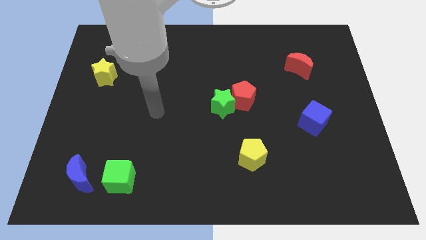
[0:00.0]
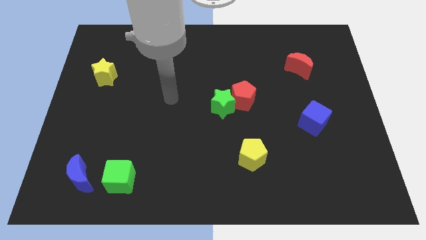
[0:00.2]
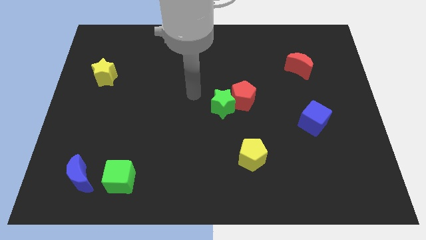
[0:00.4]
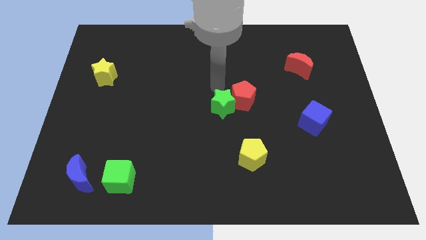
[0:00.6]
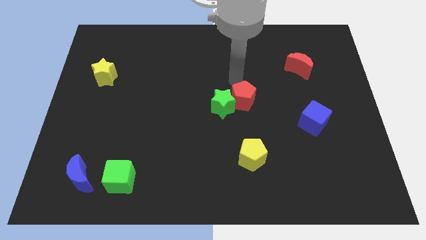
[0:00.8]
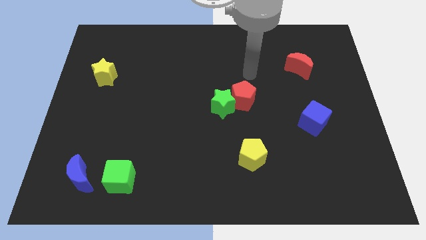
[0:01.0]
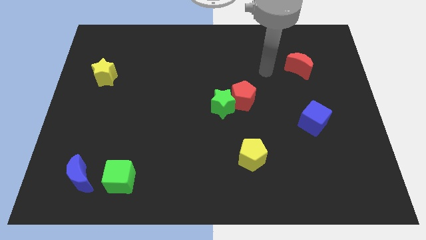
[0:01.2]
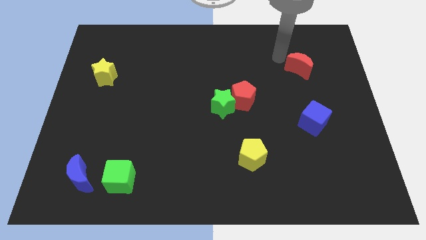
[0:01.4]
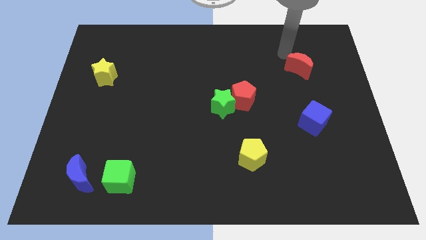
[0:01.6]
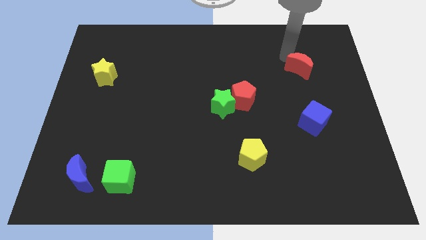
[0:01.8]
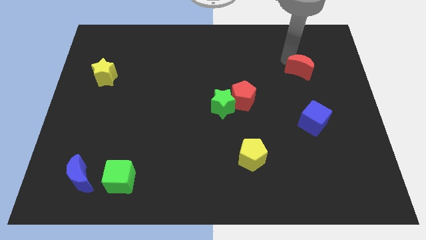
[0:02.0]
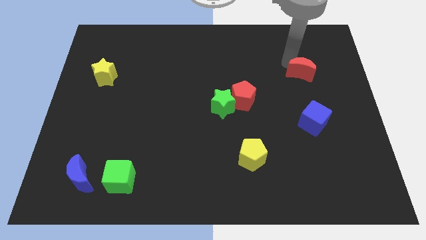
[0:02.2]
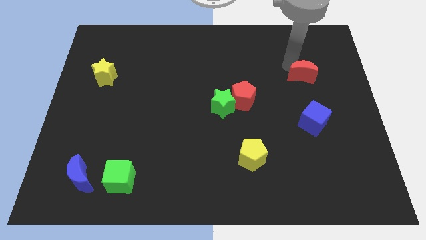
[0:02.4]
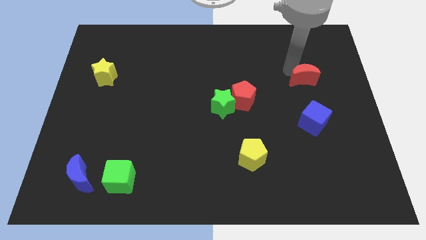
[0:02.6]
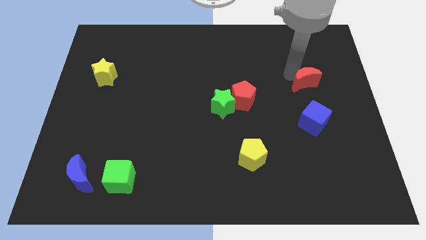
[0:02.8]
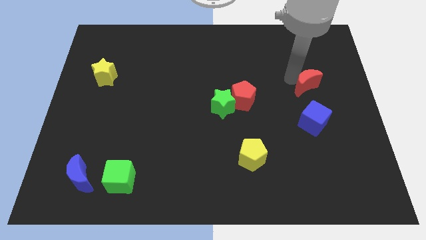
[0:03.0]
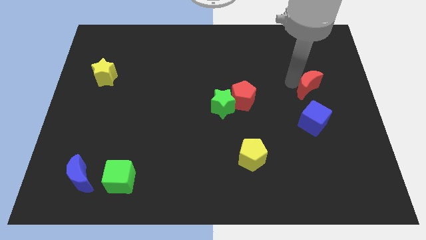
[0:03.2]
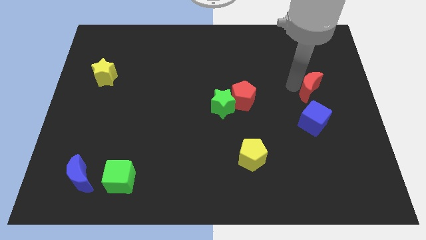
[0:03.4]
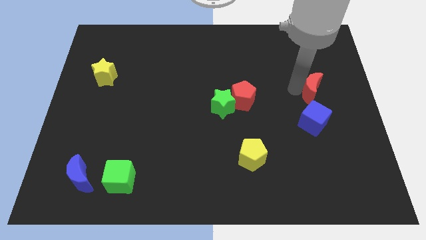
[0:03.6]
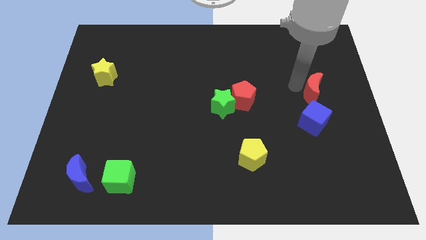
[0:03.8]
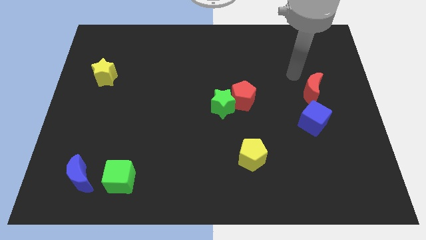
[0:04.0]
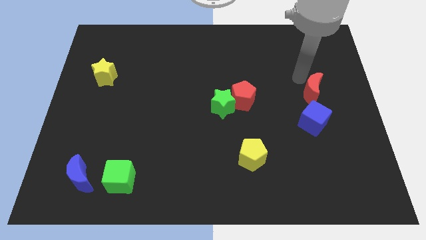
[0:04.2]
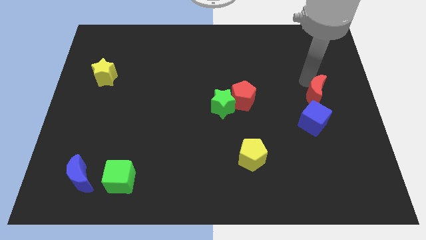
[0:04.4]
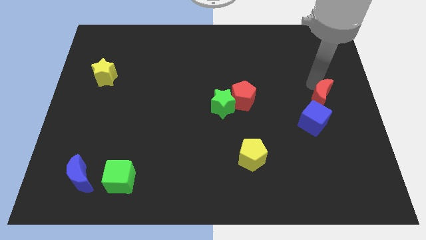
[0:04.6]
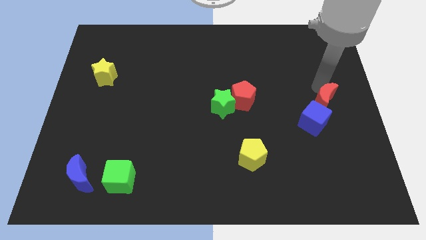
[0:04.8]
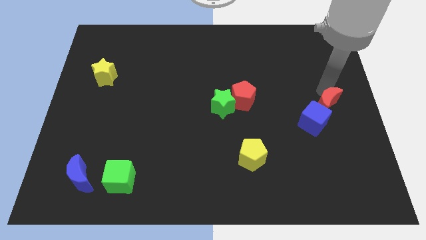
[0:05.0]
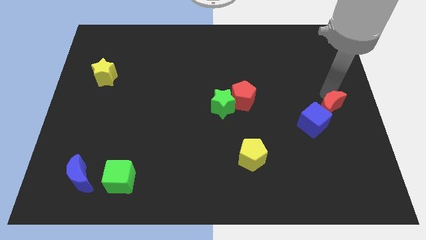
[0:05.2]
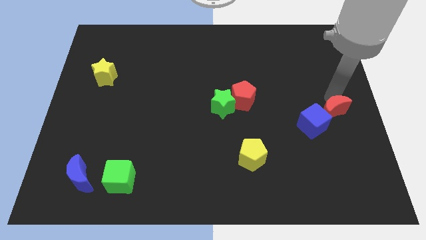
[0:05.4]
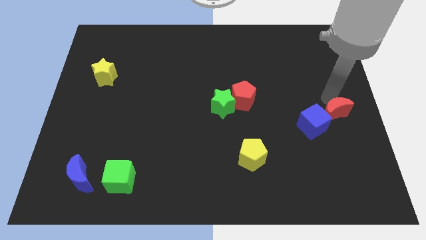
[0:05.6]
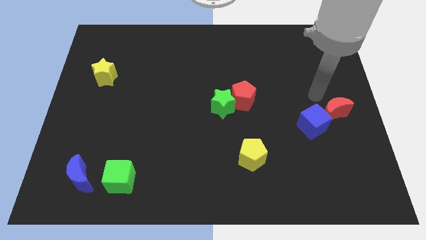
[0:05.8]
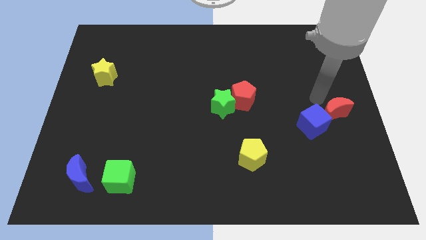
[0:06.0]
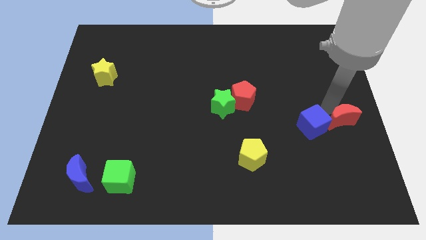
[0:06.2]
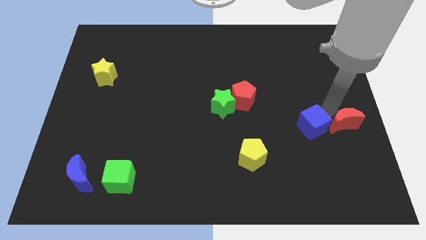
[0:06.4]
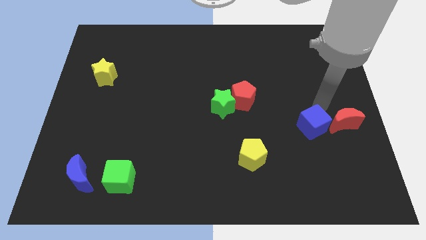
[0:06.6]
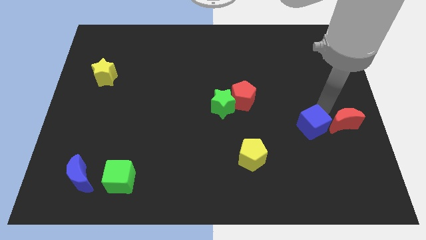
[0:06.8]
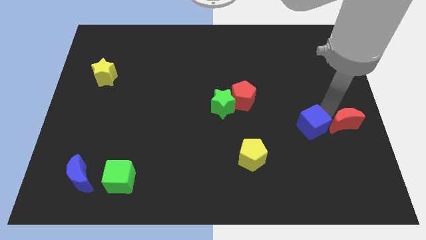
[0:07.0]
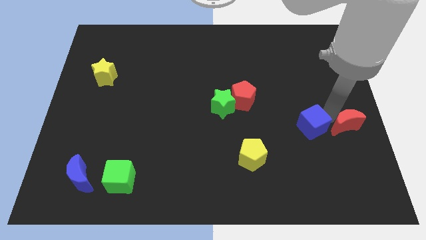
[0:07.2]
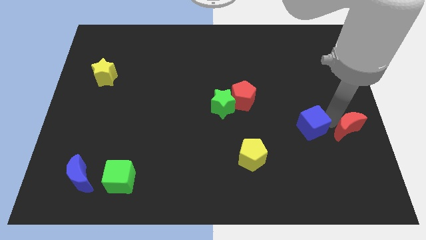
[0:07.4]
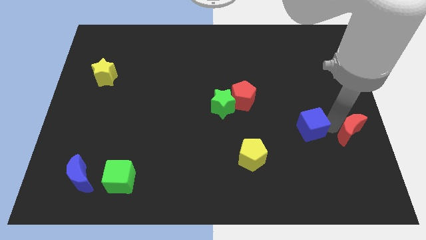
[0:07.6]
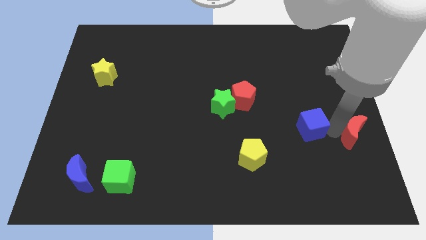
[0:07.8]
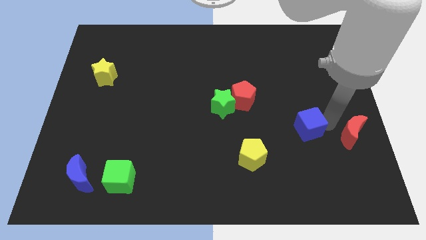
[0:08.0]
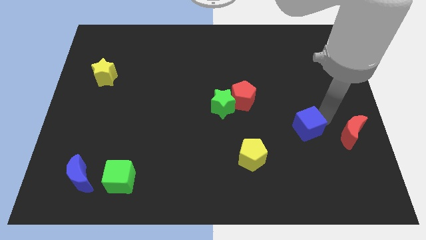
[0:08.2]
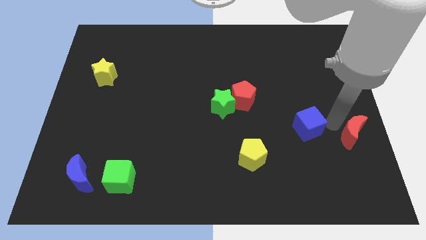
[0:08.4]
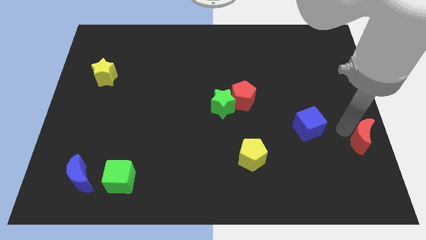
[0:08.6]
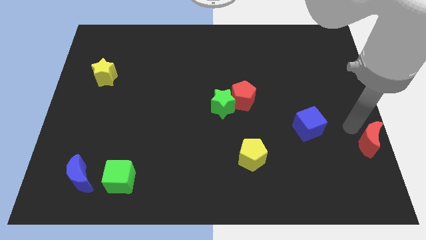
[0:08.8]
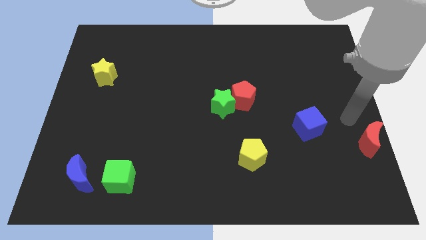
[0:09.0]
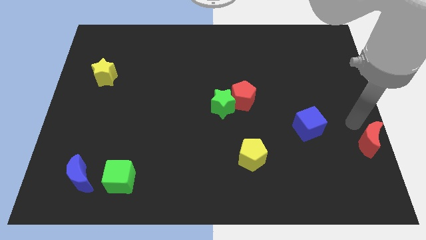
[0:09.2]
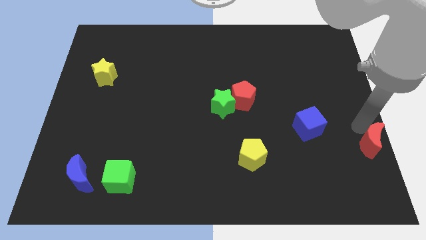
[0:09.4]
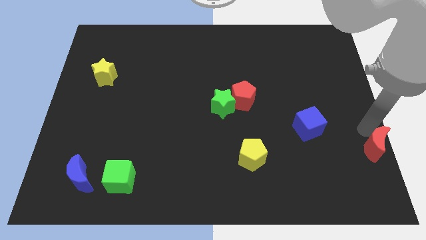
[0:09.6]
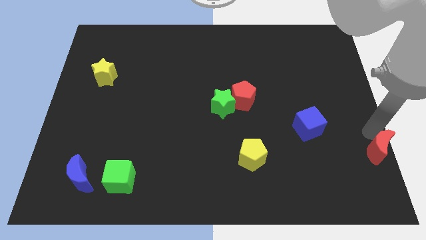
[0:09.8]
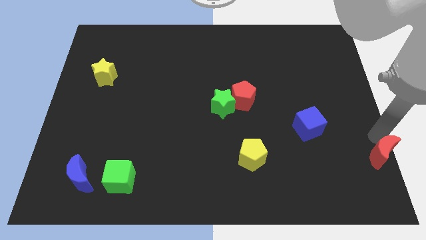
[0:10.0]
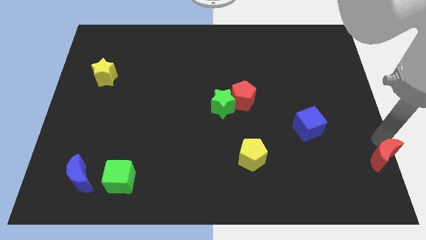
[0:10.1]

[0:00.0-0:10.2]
move the red moon to the bottom right of the board

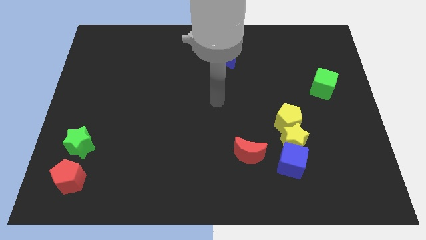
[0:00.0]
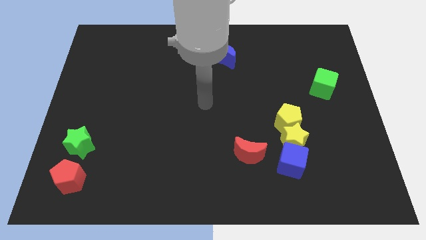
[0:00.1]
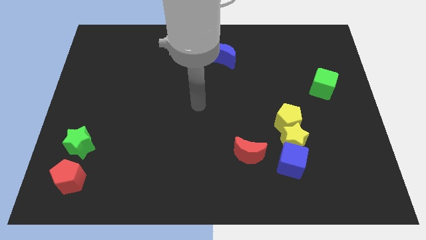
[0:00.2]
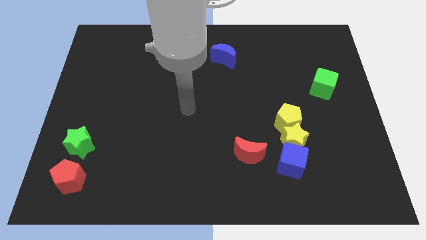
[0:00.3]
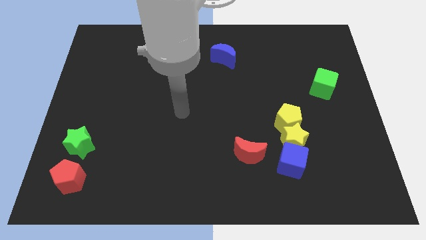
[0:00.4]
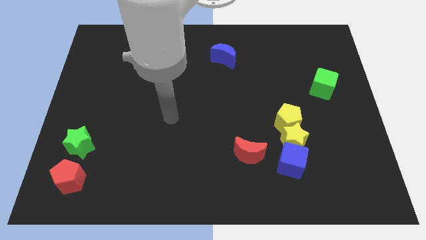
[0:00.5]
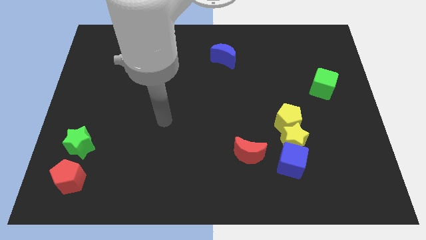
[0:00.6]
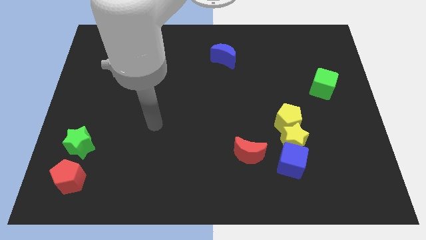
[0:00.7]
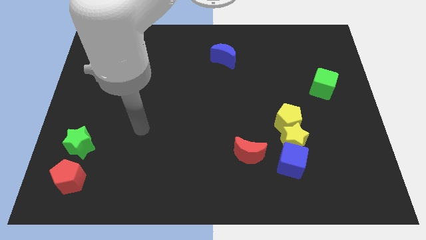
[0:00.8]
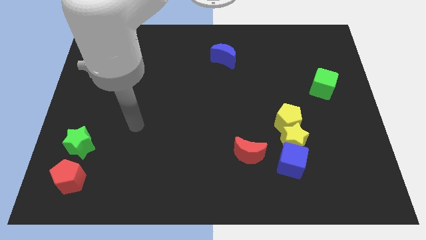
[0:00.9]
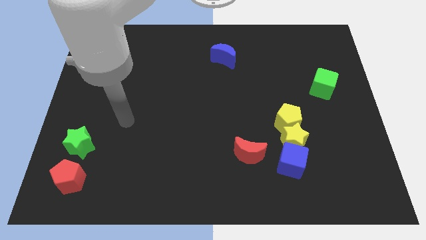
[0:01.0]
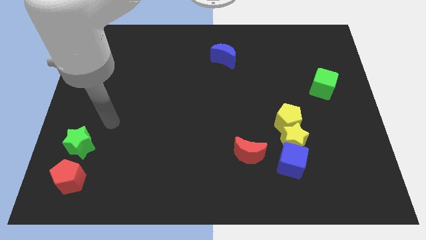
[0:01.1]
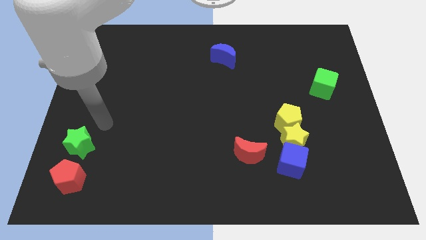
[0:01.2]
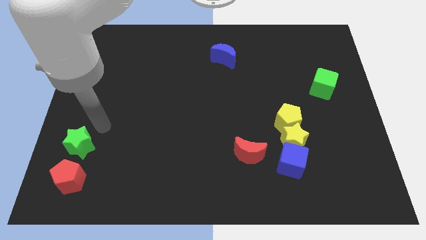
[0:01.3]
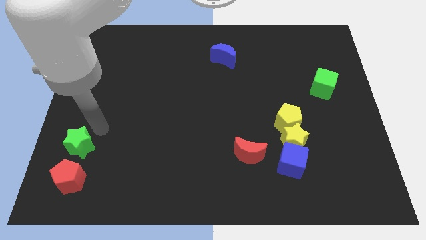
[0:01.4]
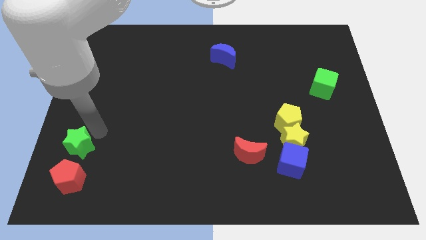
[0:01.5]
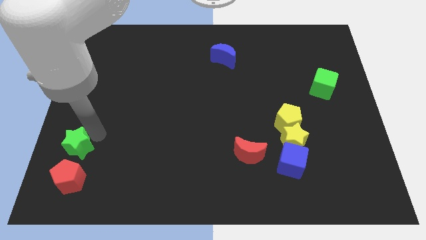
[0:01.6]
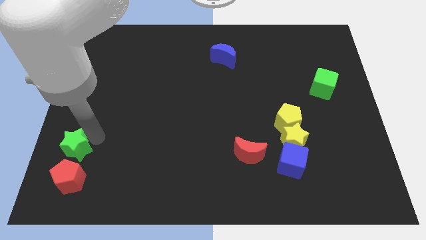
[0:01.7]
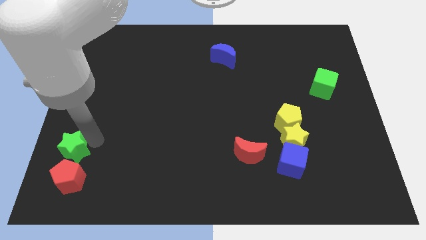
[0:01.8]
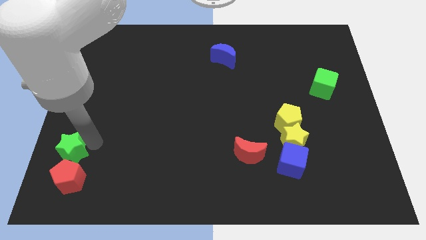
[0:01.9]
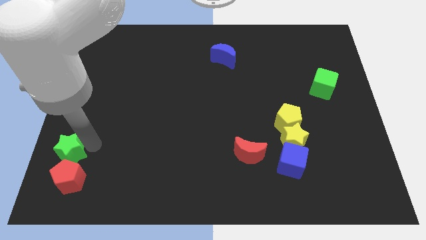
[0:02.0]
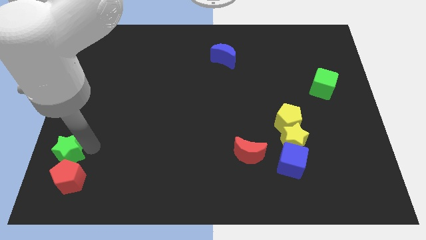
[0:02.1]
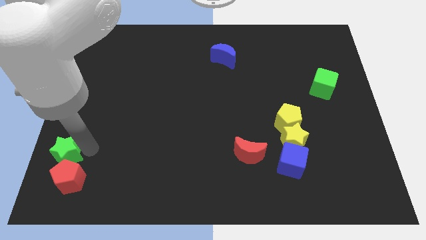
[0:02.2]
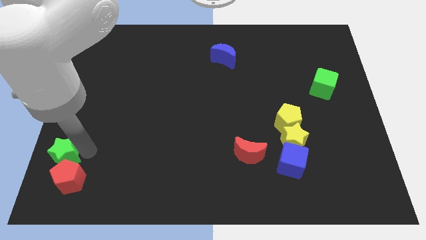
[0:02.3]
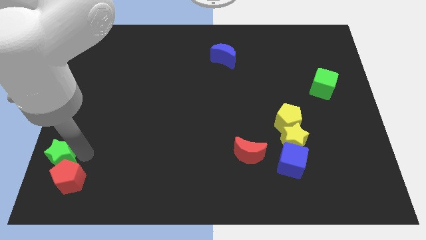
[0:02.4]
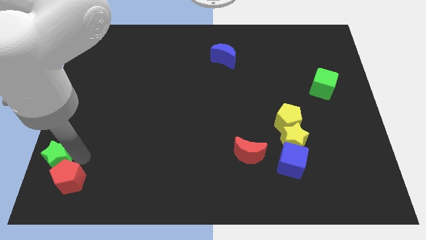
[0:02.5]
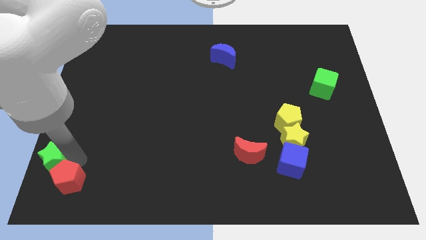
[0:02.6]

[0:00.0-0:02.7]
push the green star to the bottom left of the board
